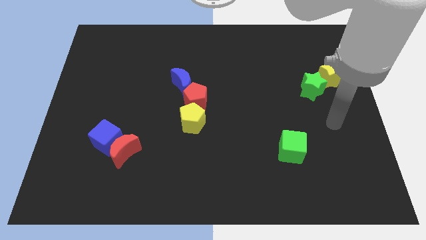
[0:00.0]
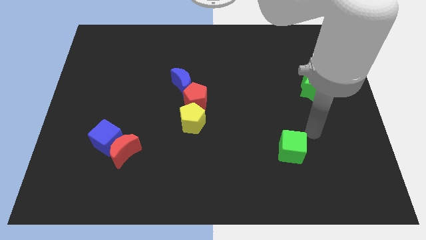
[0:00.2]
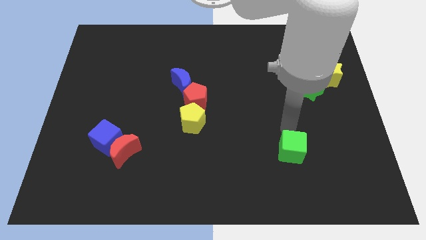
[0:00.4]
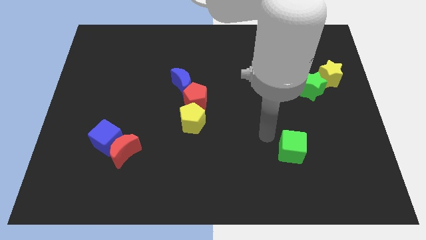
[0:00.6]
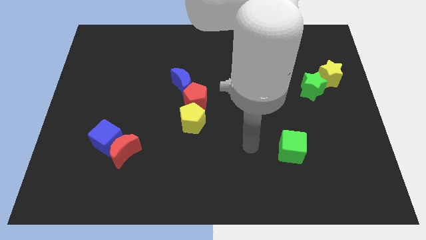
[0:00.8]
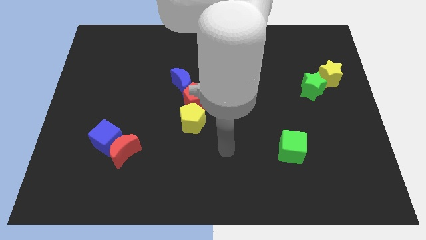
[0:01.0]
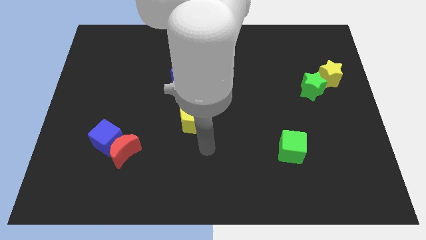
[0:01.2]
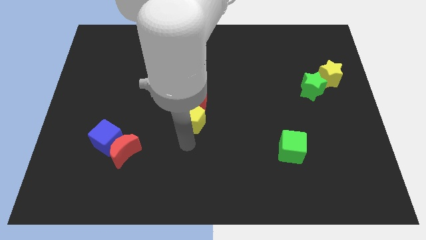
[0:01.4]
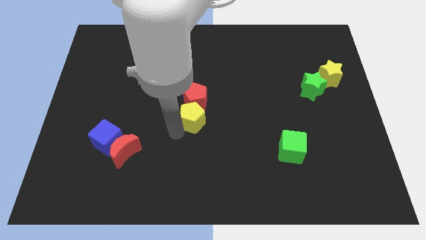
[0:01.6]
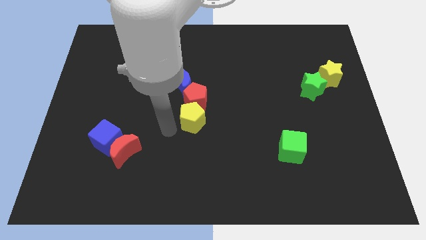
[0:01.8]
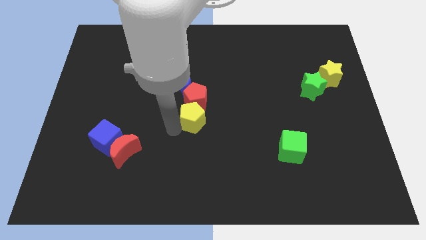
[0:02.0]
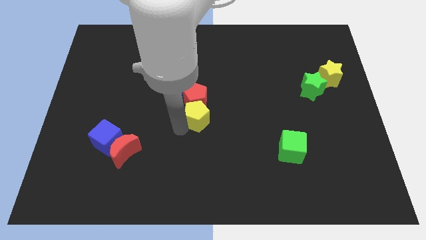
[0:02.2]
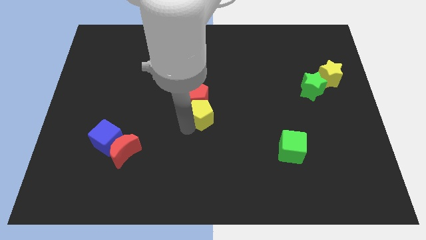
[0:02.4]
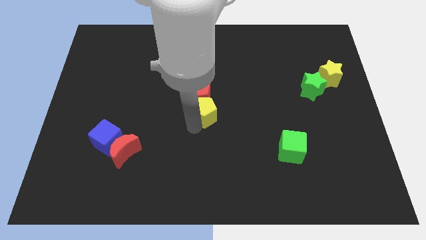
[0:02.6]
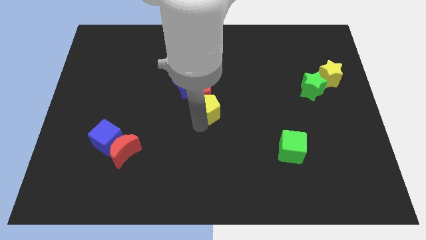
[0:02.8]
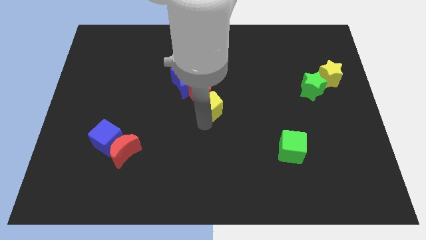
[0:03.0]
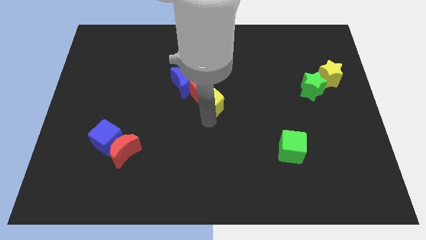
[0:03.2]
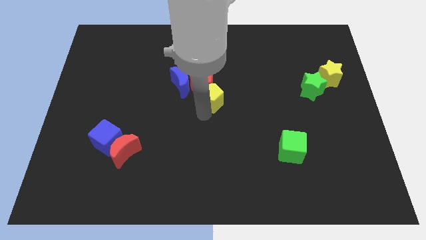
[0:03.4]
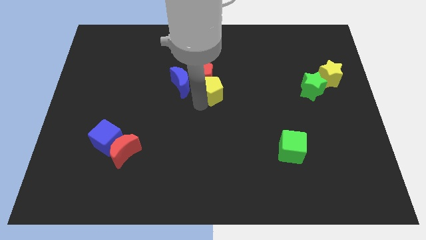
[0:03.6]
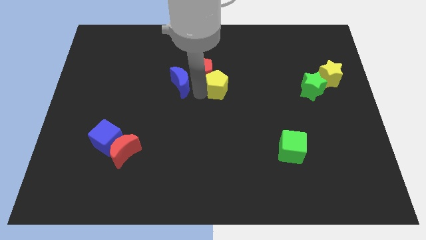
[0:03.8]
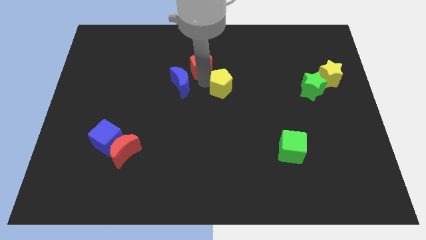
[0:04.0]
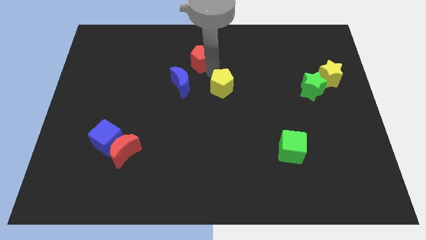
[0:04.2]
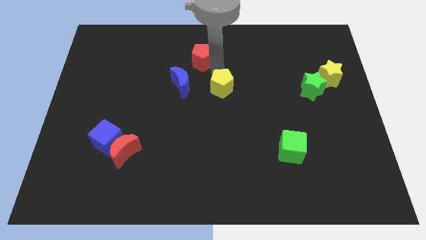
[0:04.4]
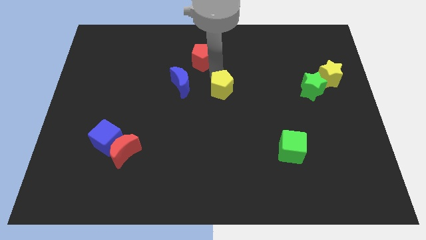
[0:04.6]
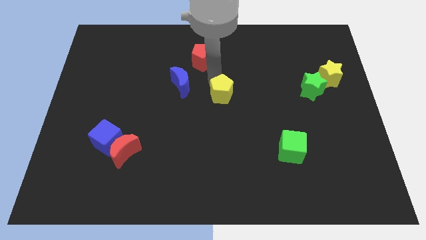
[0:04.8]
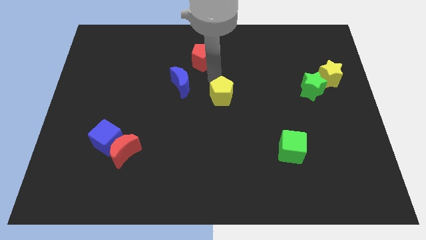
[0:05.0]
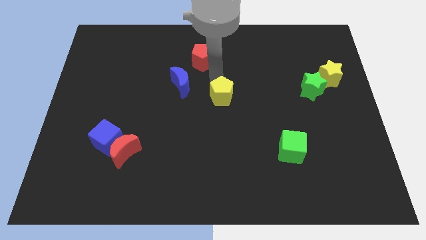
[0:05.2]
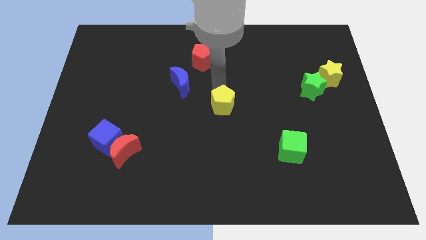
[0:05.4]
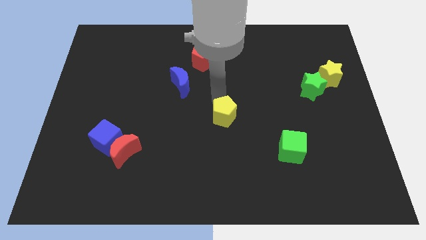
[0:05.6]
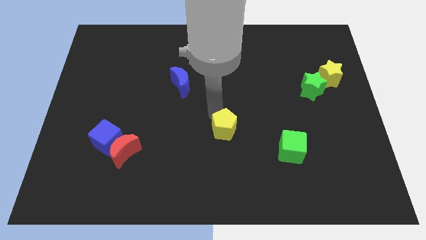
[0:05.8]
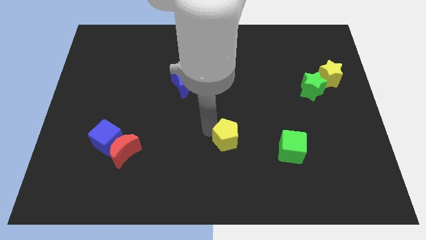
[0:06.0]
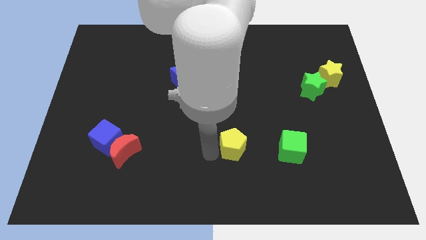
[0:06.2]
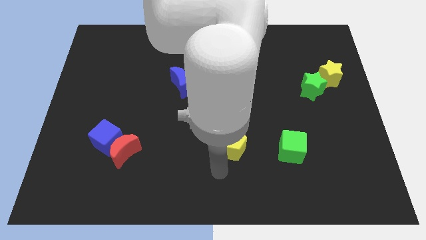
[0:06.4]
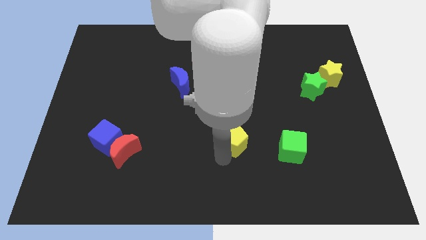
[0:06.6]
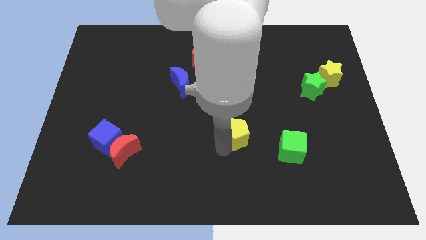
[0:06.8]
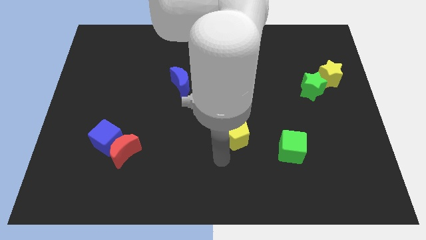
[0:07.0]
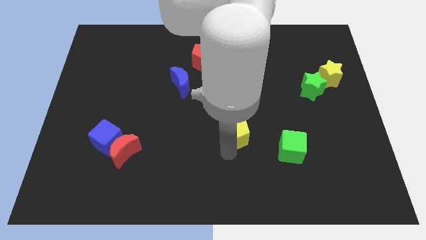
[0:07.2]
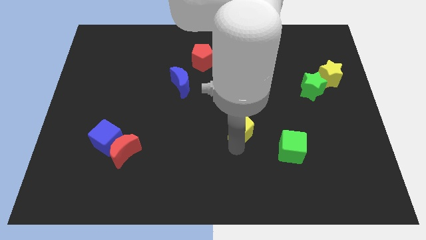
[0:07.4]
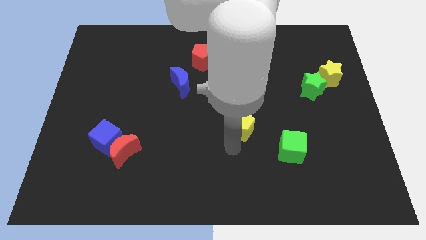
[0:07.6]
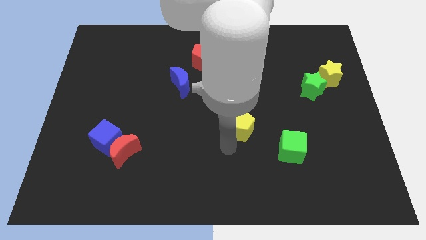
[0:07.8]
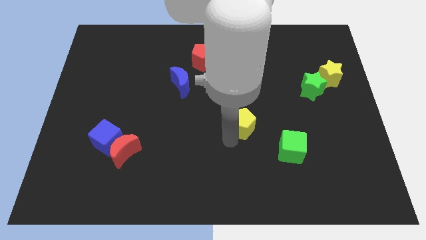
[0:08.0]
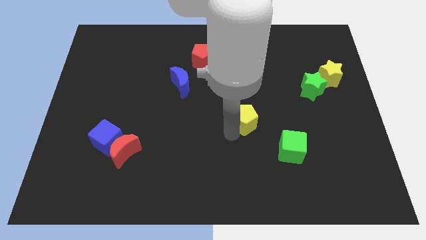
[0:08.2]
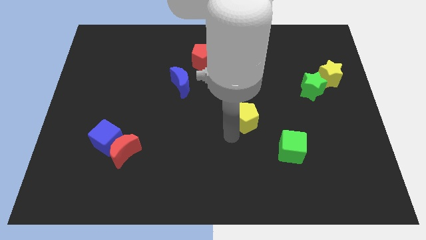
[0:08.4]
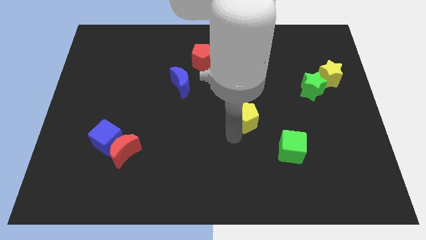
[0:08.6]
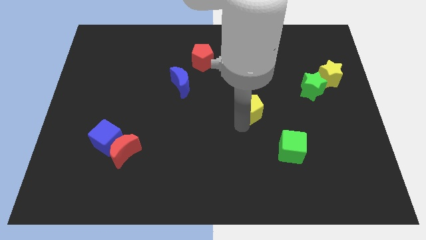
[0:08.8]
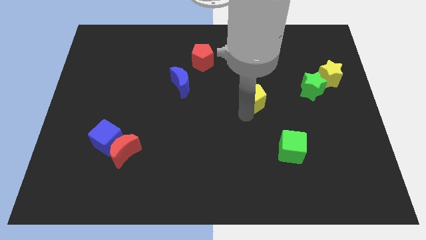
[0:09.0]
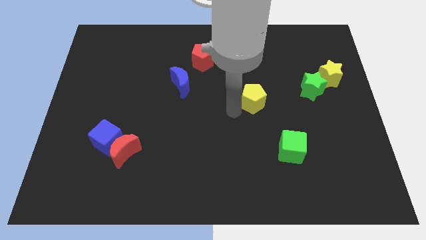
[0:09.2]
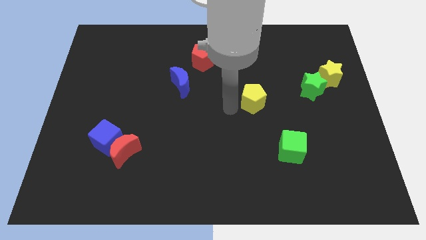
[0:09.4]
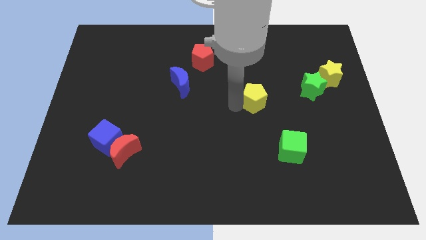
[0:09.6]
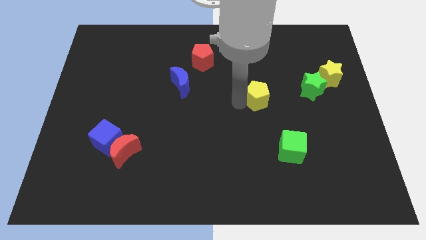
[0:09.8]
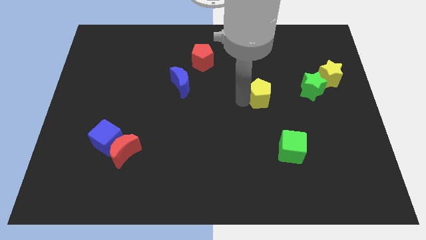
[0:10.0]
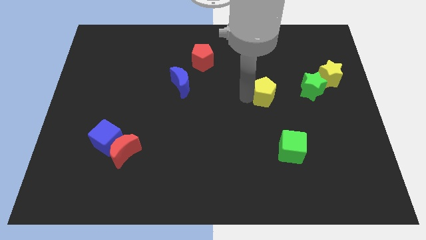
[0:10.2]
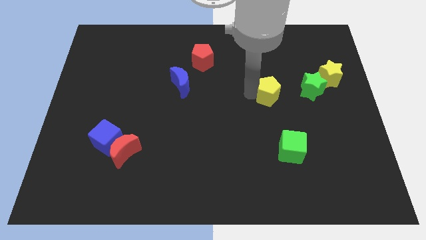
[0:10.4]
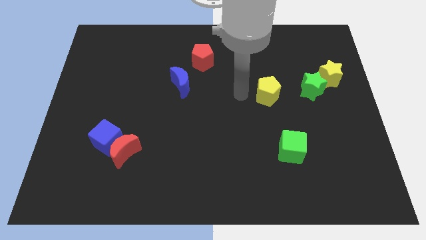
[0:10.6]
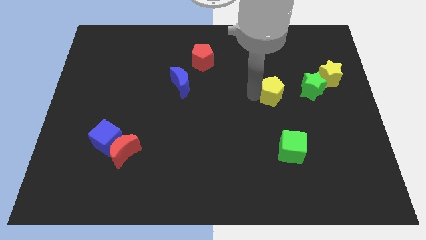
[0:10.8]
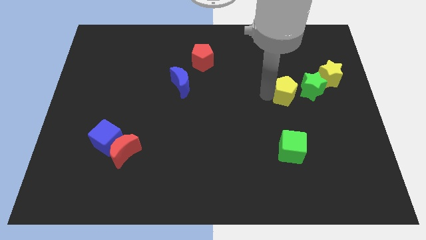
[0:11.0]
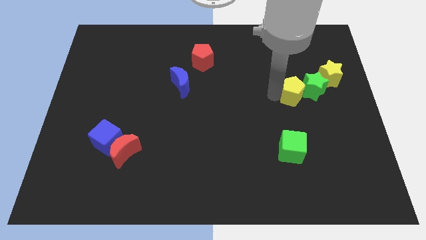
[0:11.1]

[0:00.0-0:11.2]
put the yellow pentagon next to the green star
